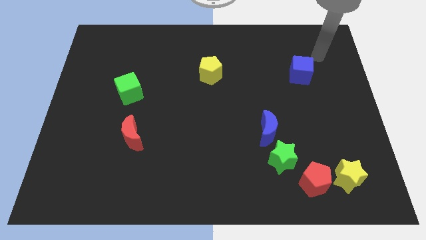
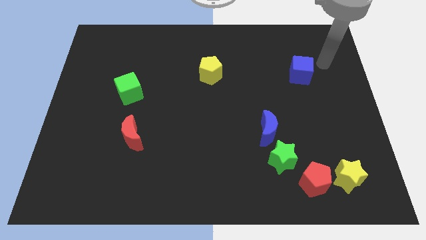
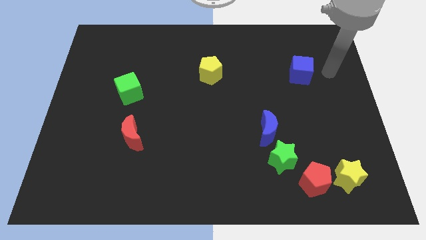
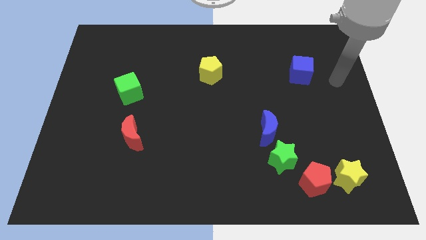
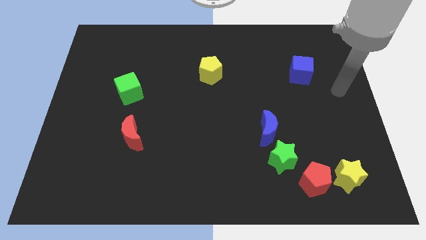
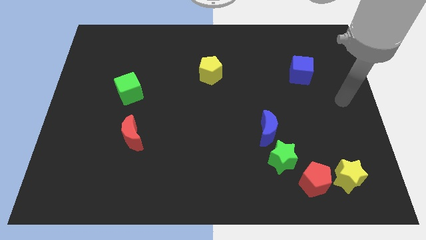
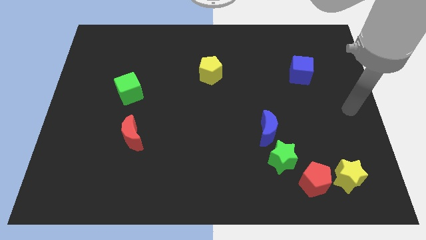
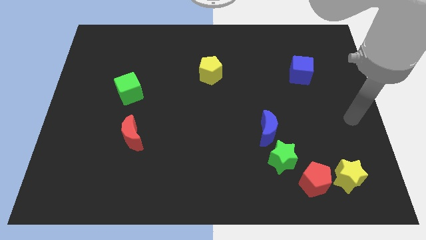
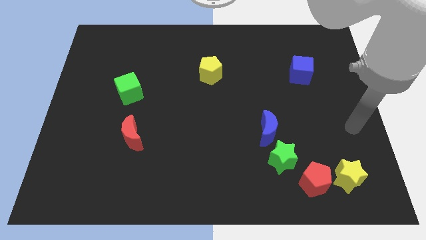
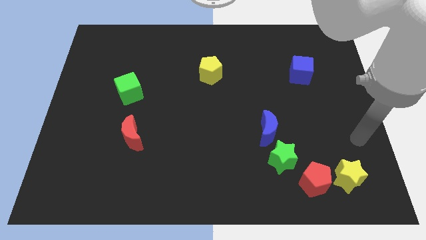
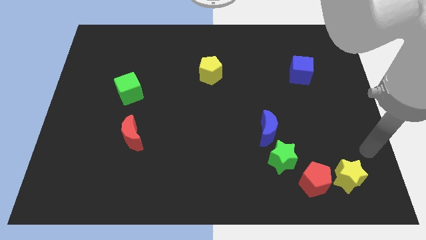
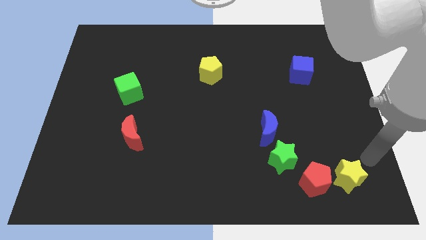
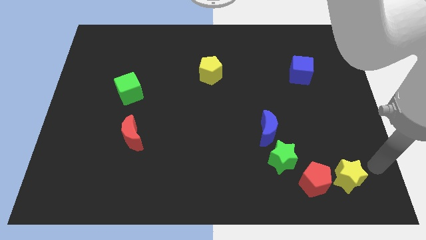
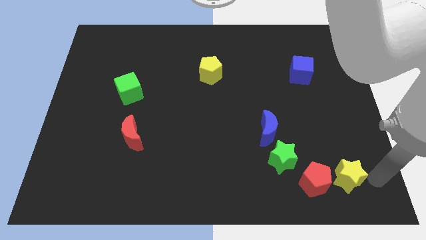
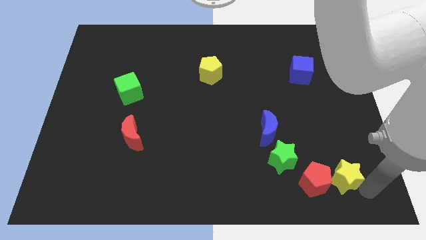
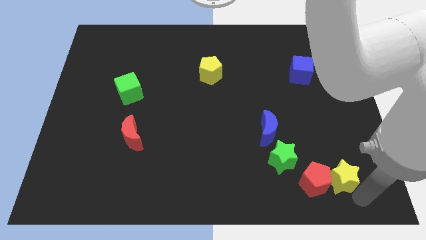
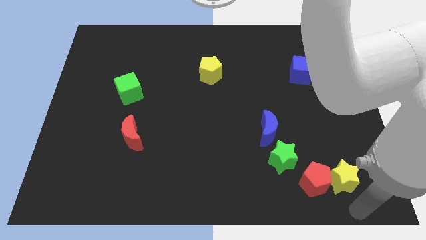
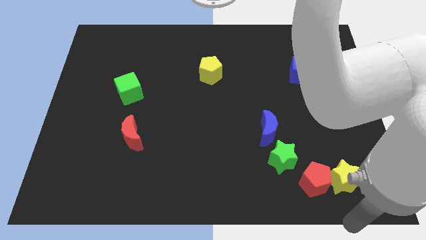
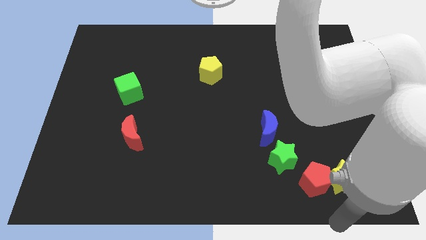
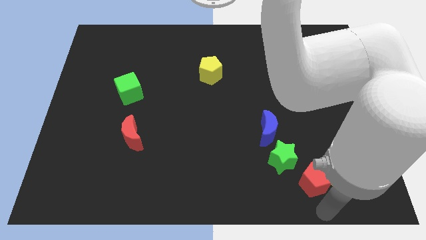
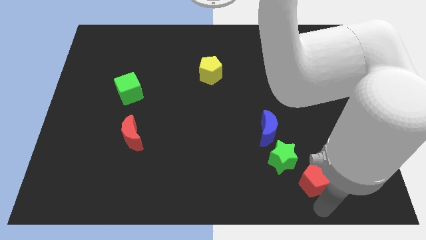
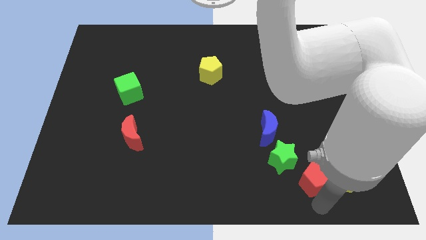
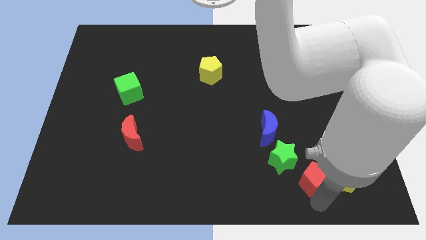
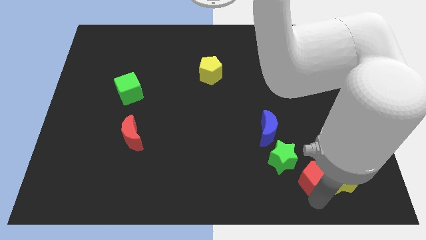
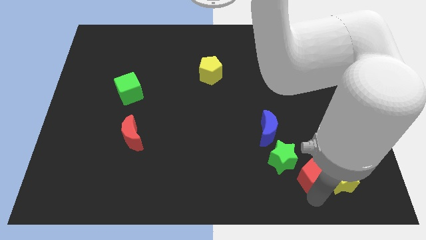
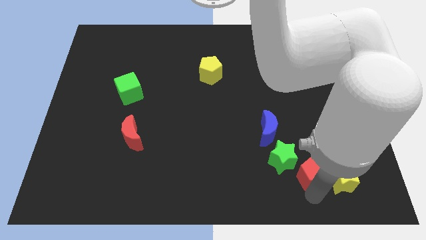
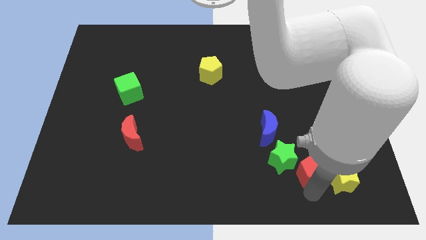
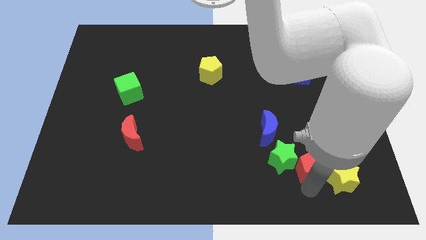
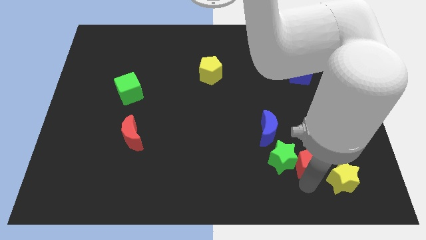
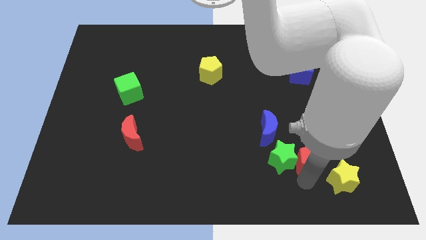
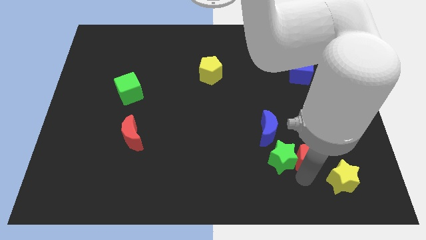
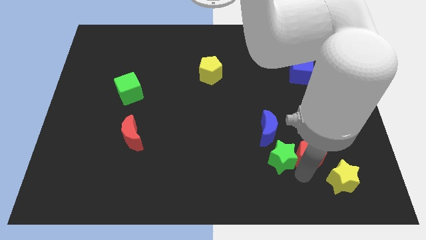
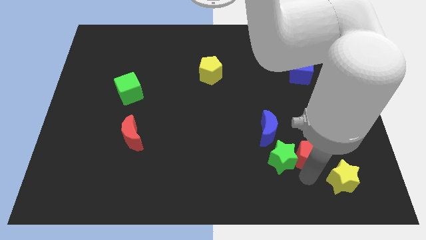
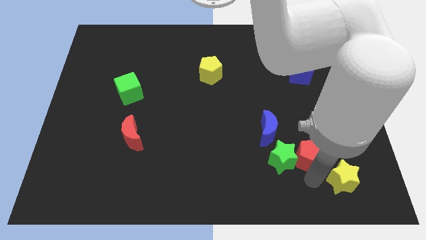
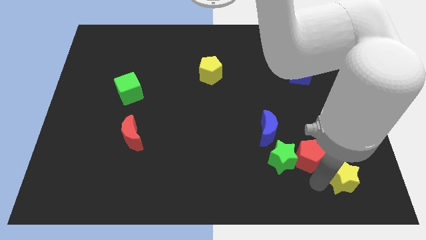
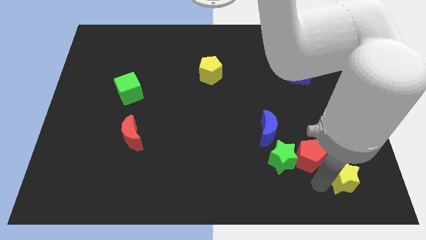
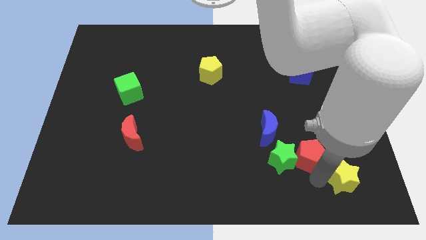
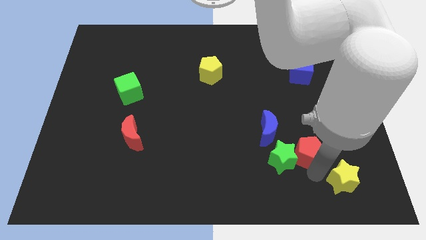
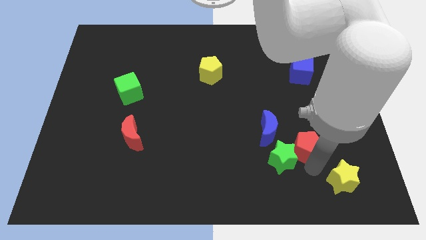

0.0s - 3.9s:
move the red pentagon upwards a little

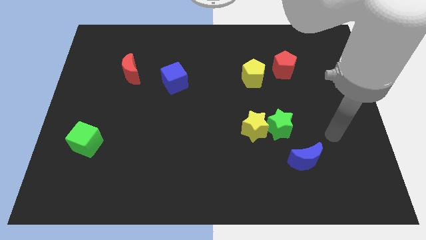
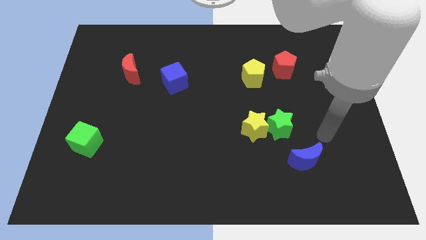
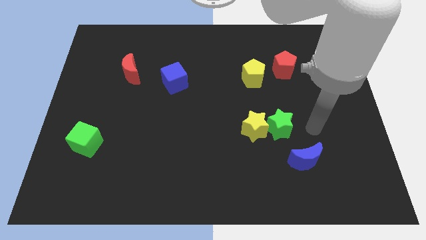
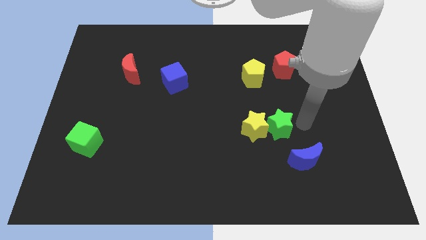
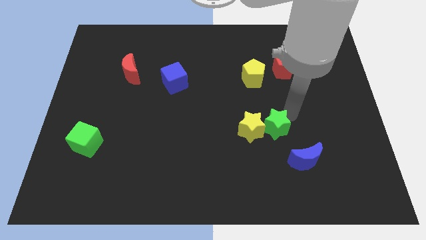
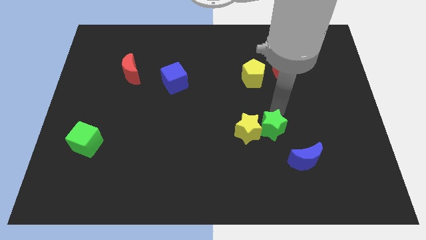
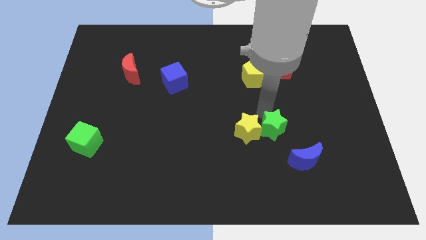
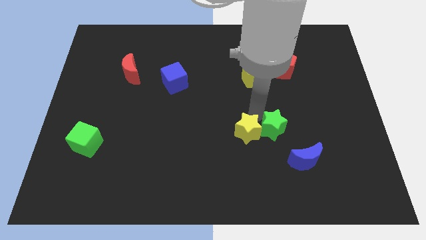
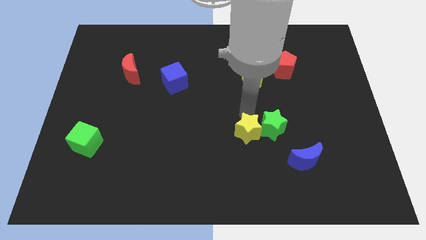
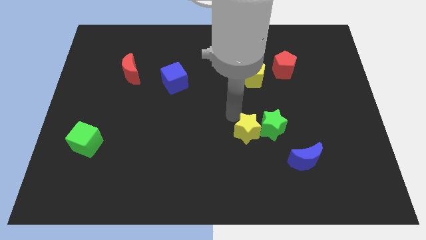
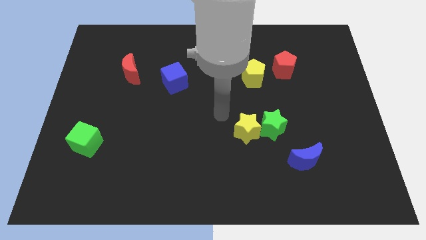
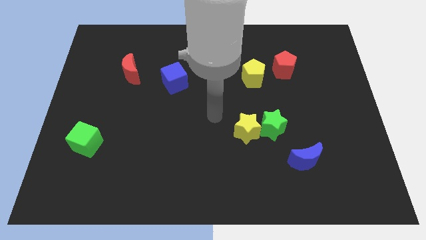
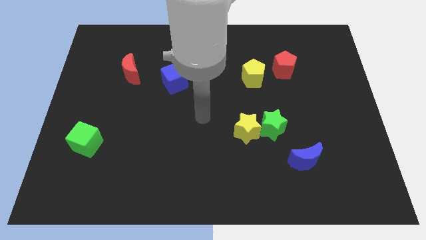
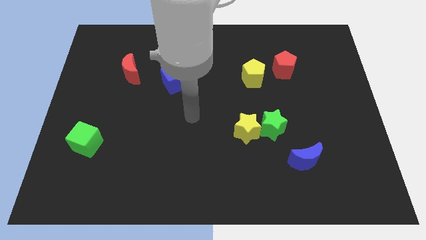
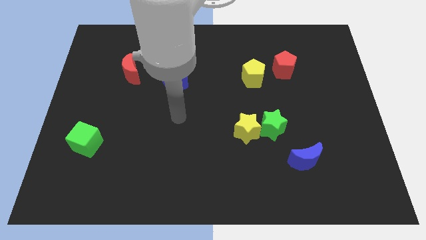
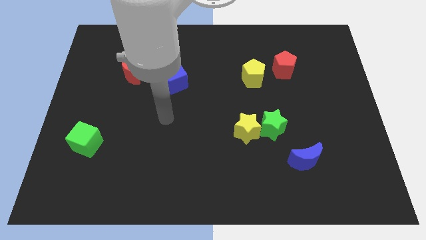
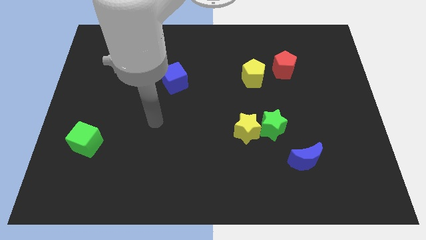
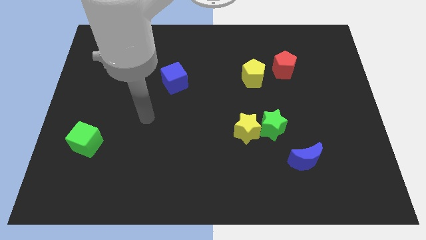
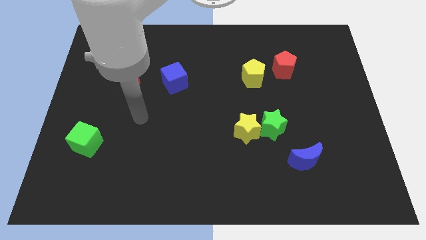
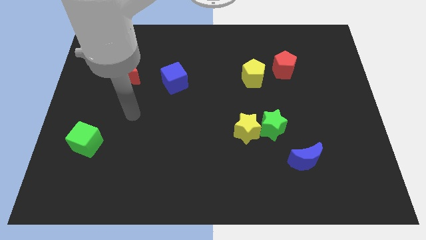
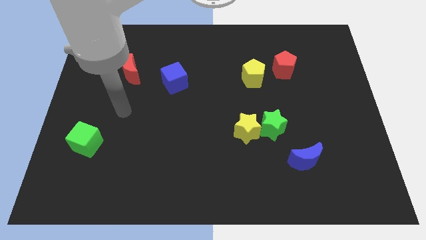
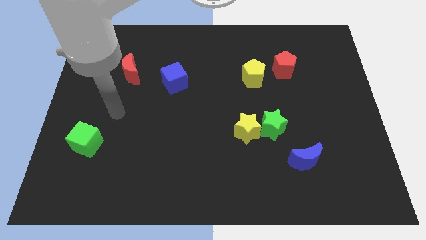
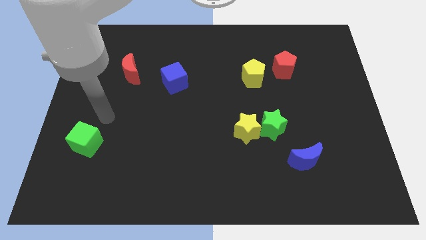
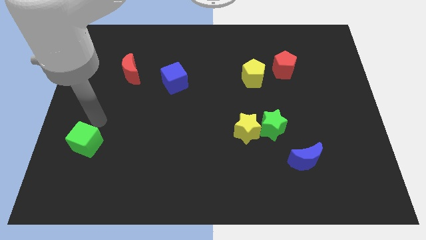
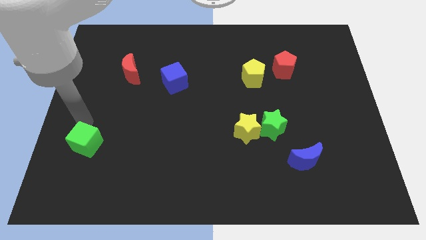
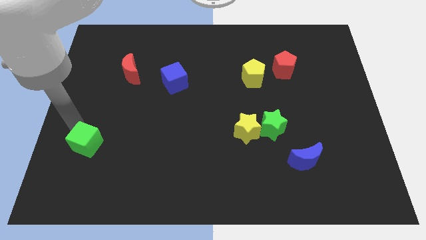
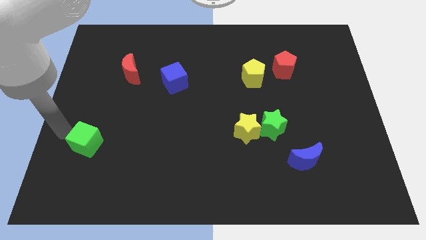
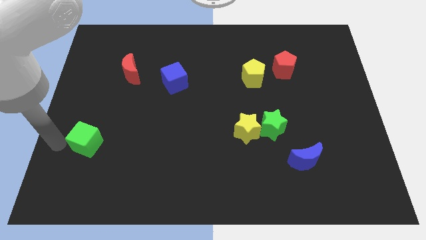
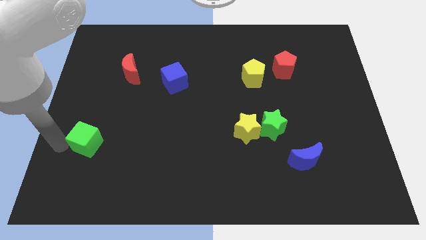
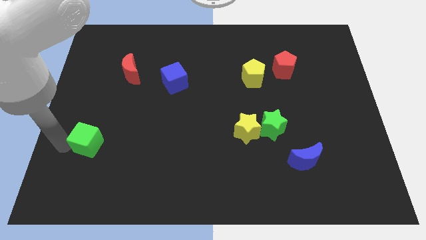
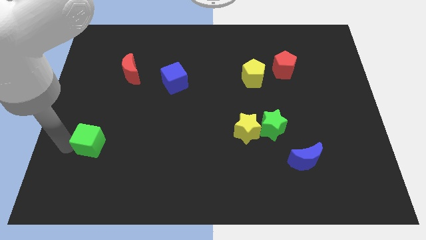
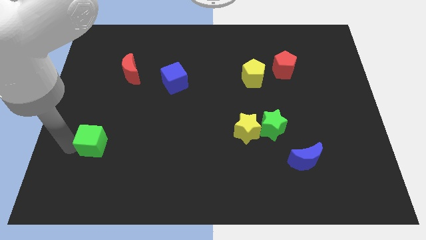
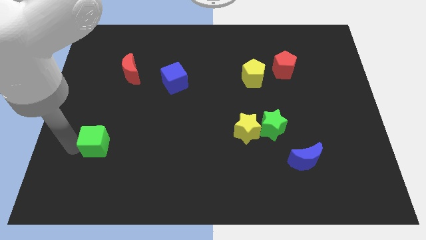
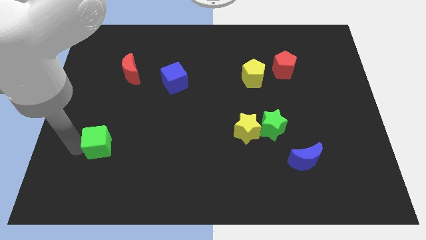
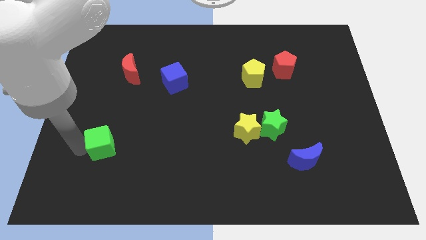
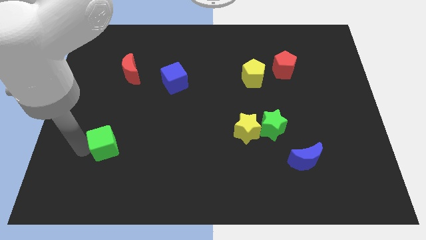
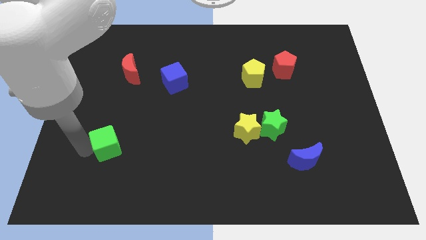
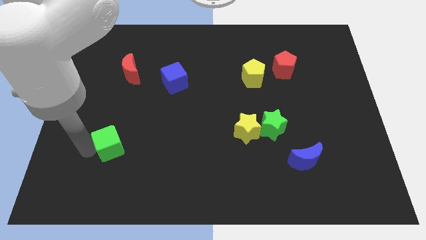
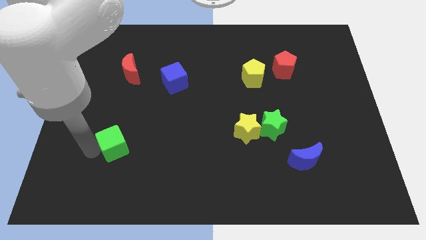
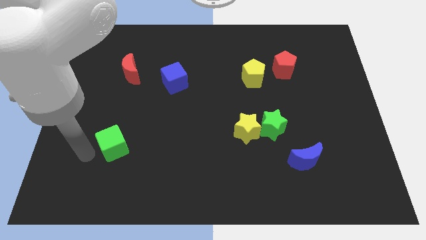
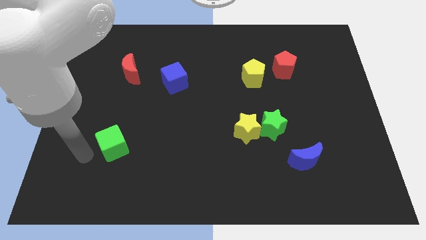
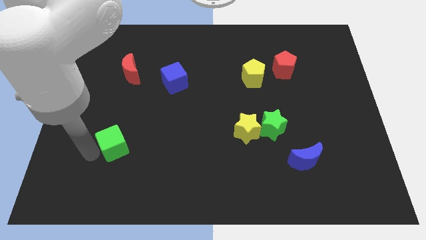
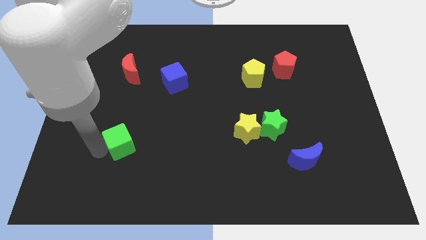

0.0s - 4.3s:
slide the green cube right a bit

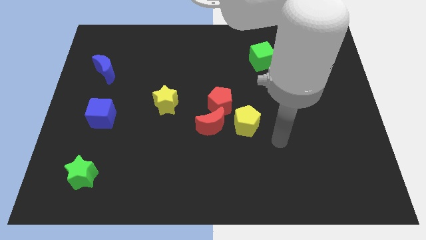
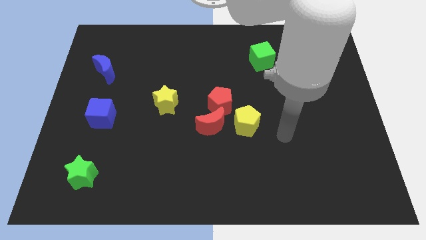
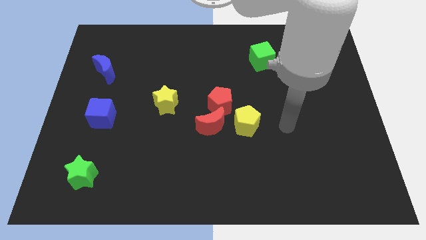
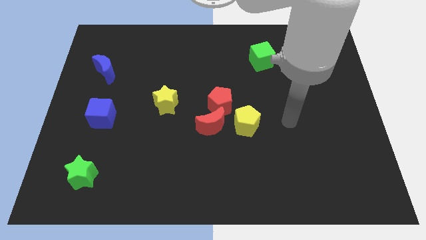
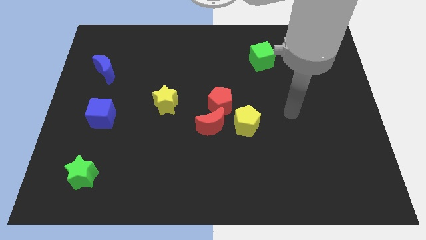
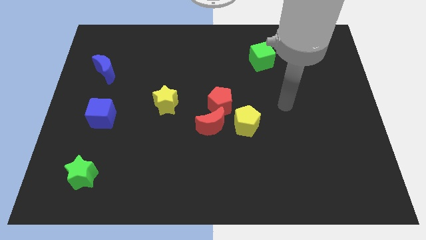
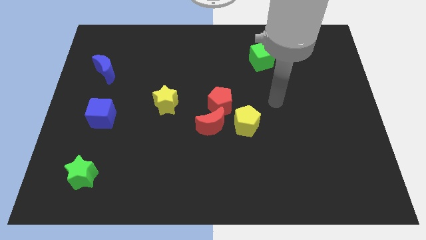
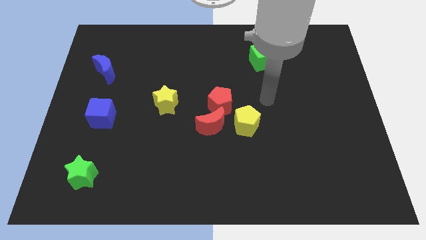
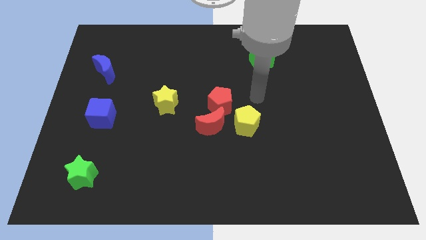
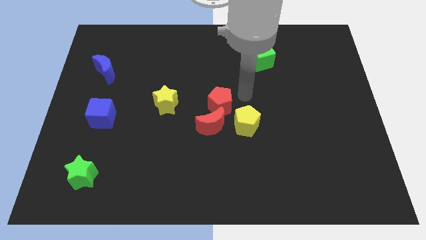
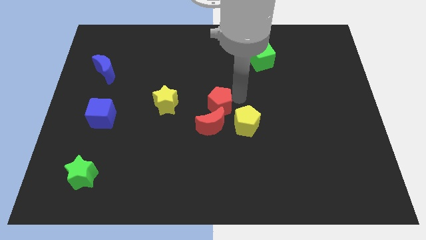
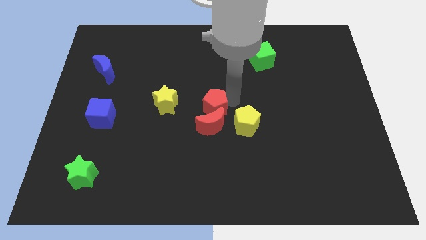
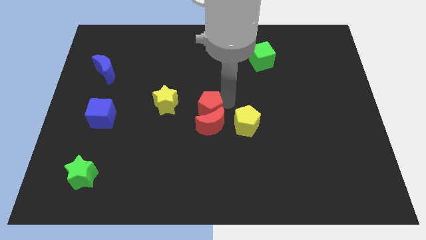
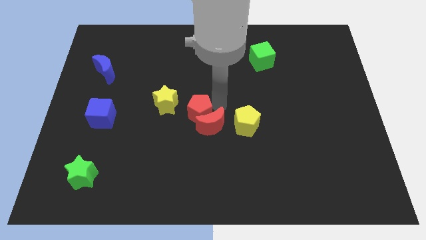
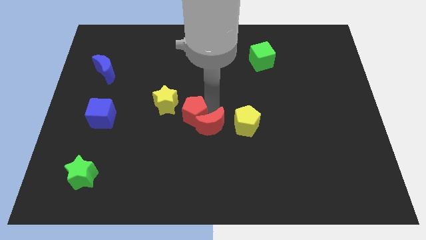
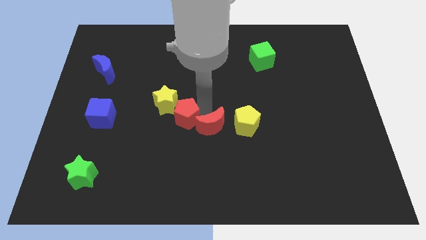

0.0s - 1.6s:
push the red pentagon down and left diagonally slightly
